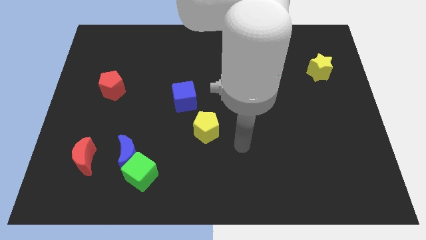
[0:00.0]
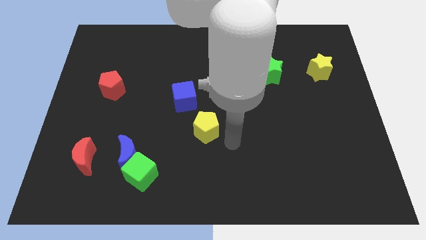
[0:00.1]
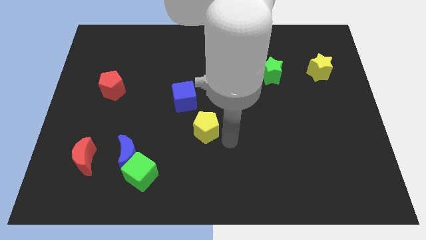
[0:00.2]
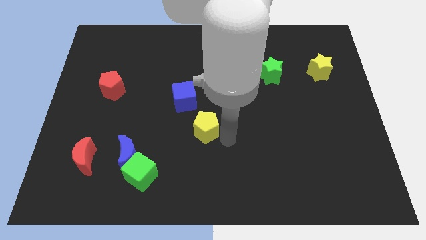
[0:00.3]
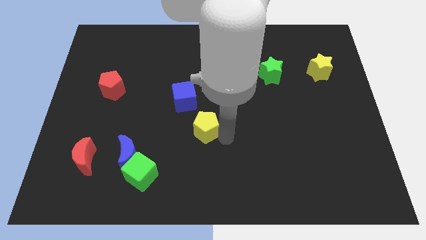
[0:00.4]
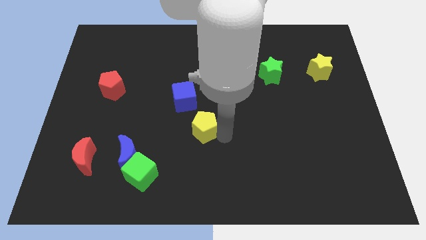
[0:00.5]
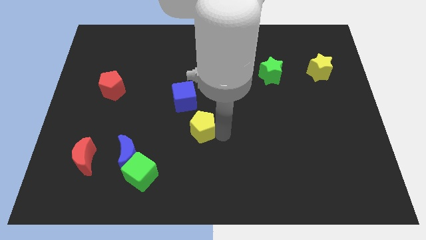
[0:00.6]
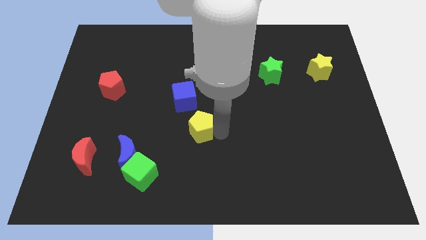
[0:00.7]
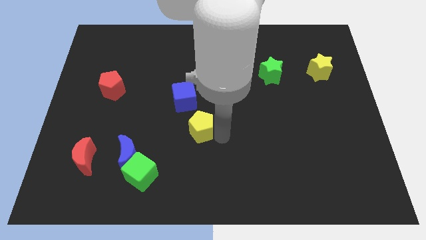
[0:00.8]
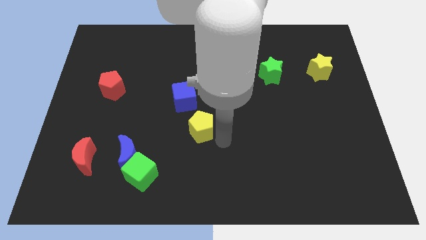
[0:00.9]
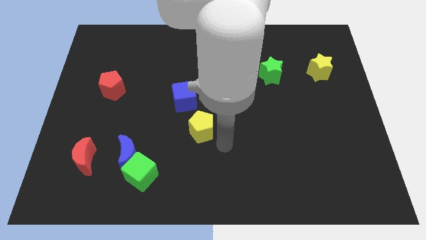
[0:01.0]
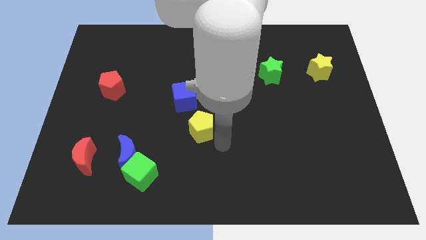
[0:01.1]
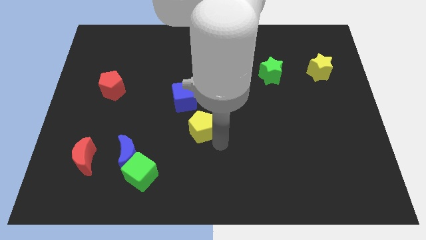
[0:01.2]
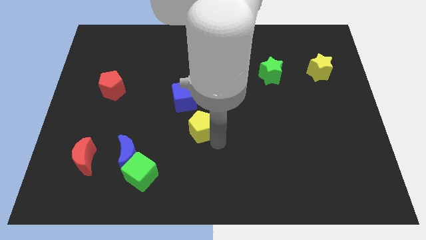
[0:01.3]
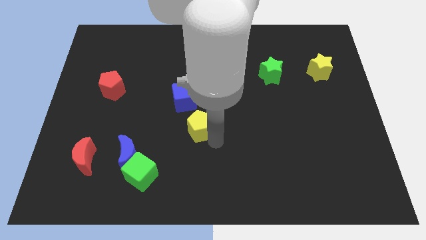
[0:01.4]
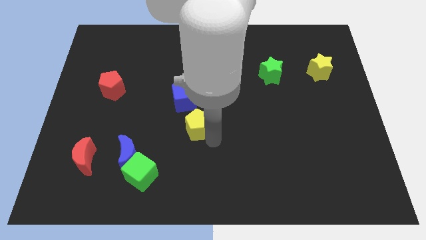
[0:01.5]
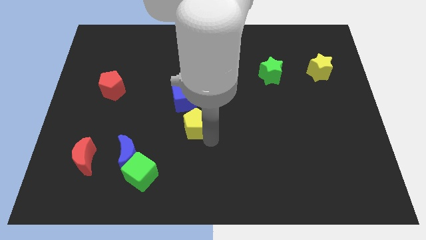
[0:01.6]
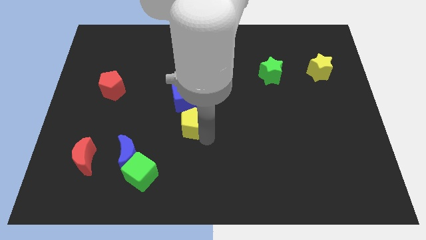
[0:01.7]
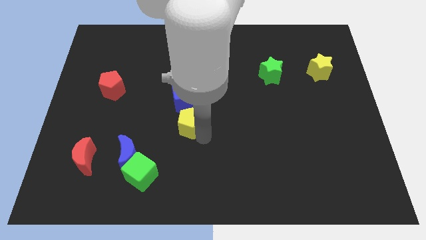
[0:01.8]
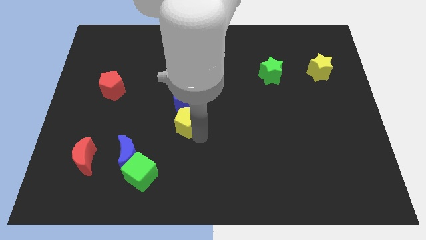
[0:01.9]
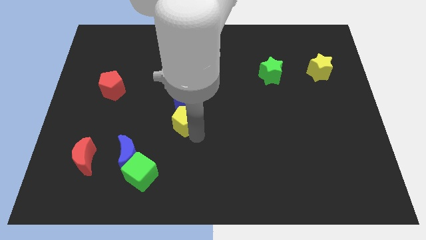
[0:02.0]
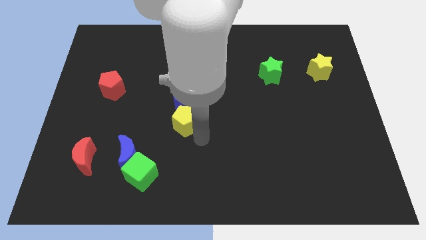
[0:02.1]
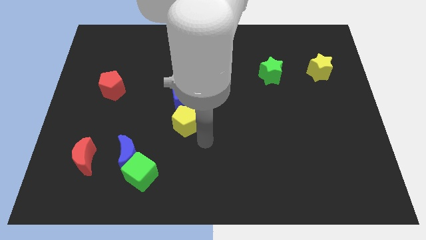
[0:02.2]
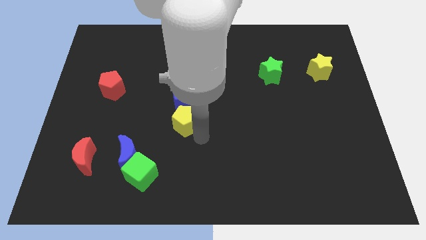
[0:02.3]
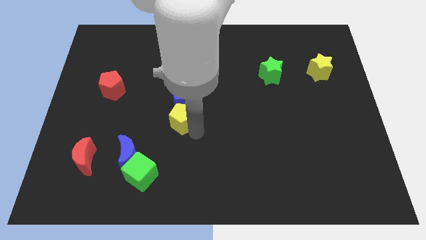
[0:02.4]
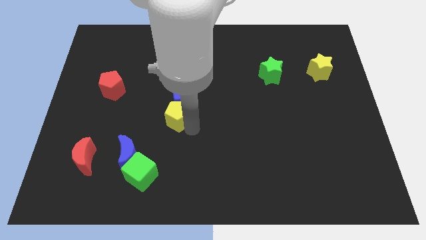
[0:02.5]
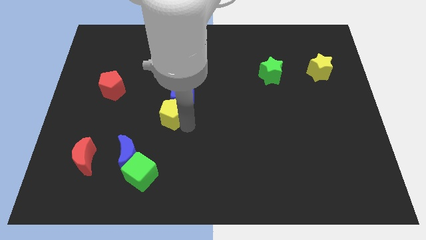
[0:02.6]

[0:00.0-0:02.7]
move the yellow pentagon slightly upwards and then to the left

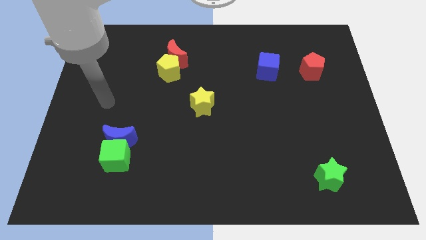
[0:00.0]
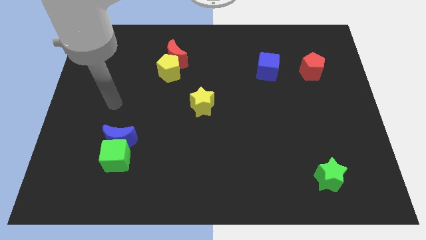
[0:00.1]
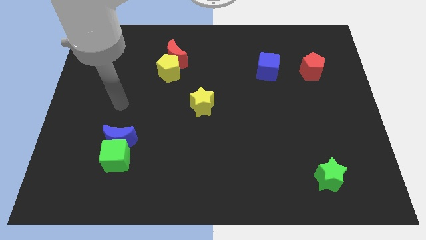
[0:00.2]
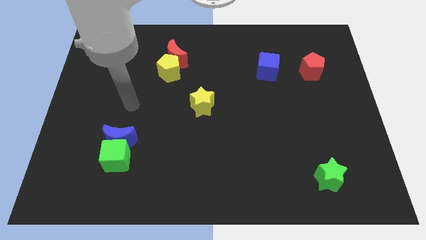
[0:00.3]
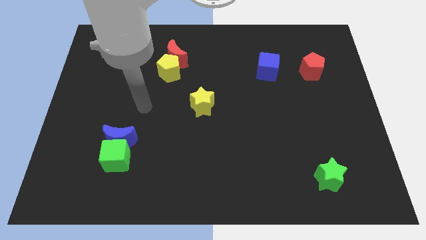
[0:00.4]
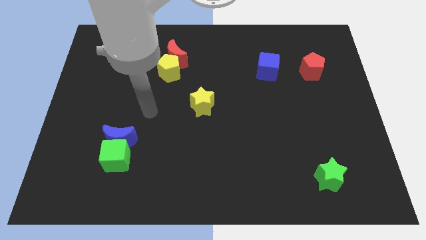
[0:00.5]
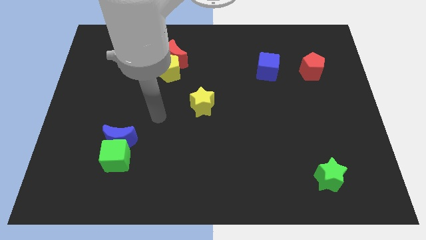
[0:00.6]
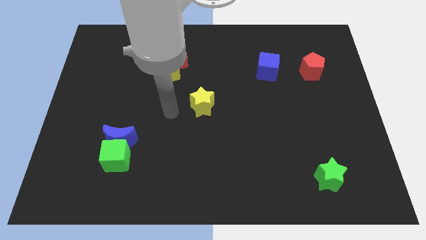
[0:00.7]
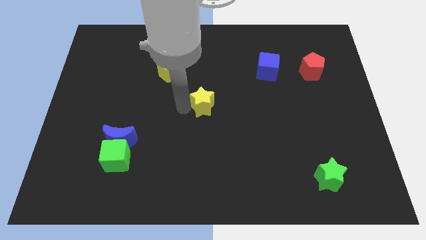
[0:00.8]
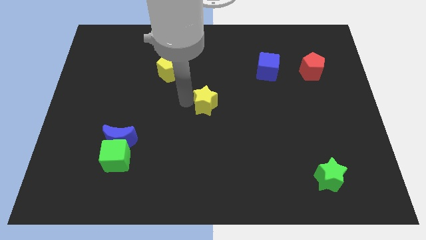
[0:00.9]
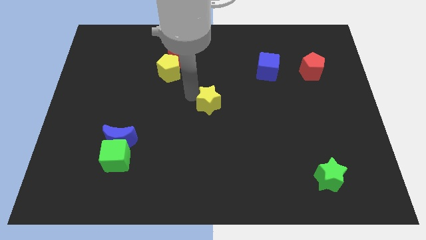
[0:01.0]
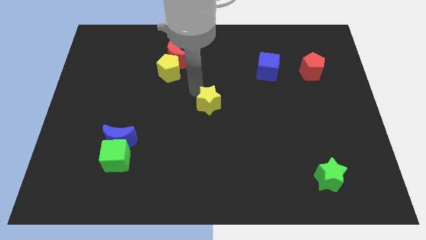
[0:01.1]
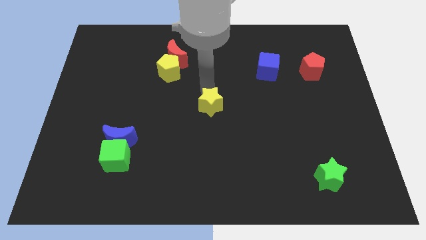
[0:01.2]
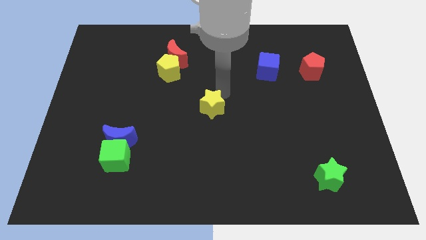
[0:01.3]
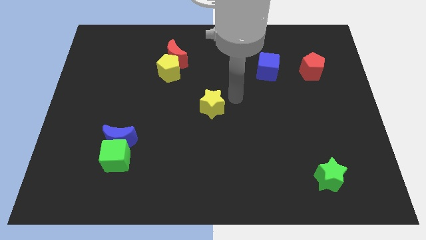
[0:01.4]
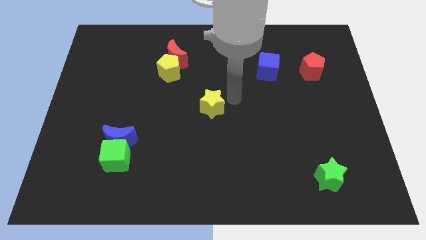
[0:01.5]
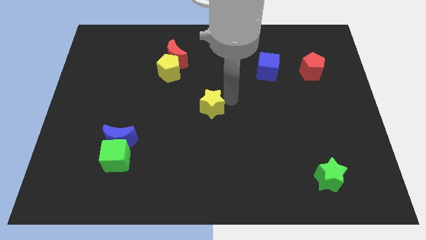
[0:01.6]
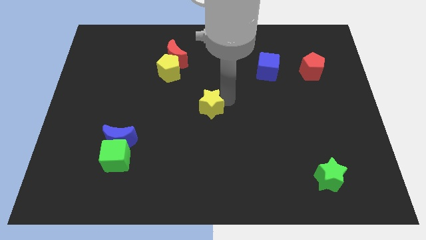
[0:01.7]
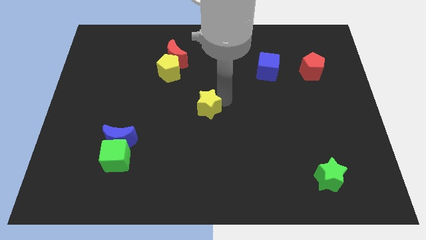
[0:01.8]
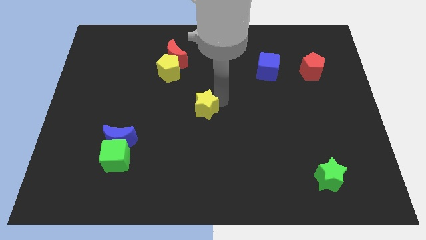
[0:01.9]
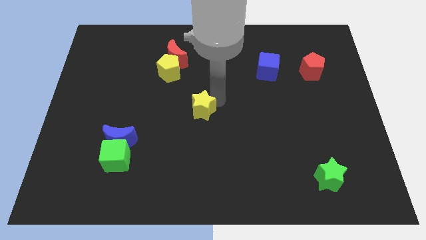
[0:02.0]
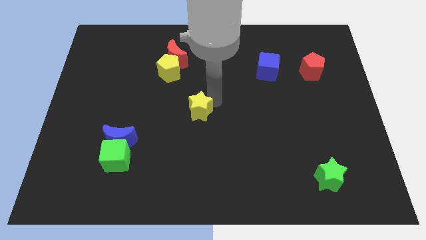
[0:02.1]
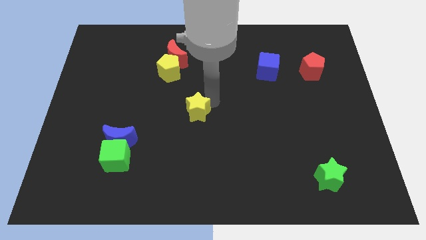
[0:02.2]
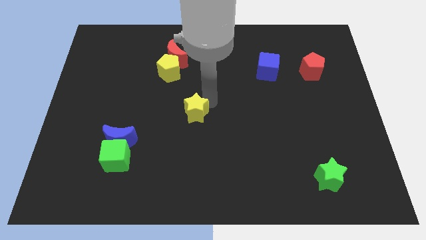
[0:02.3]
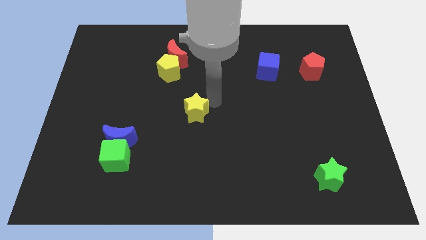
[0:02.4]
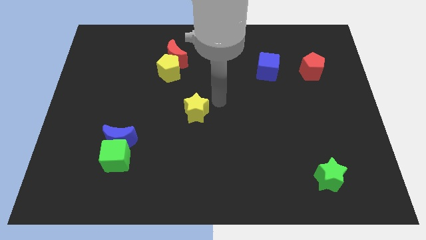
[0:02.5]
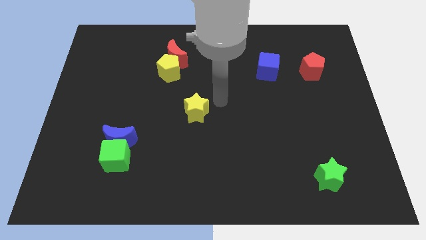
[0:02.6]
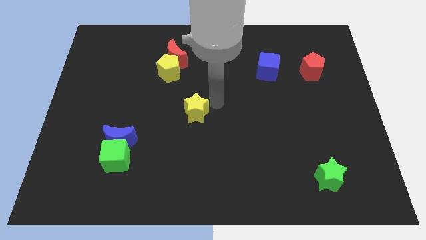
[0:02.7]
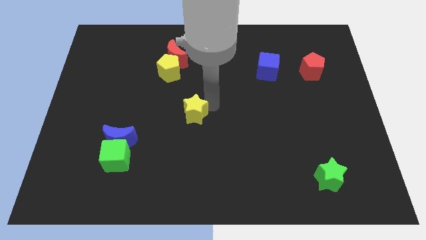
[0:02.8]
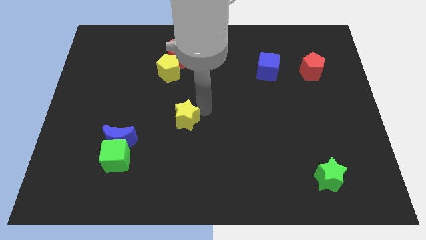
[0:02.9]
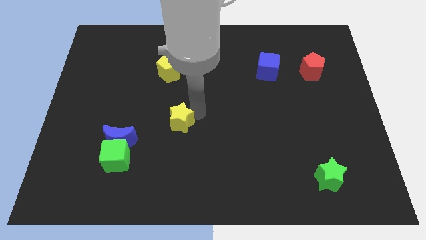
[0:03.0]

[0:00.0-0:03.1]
slightly move the yellow star downwards and left diagonally

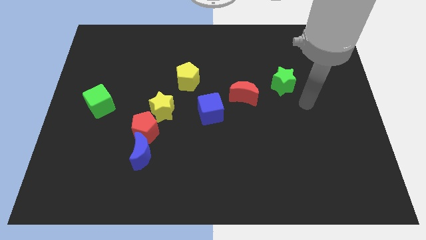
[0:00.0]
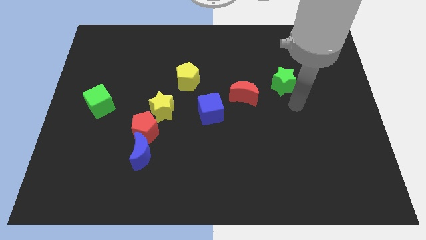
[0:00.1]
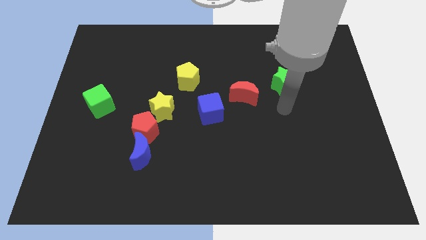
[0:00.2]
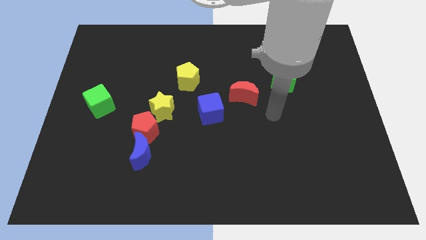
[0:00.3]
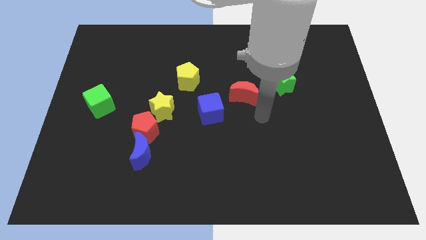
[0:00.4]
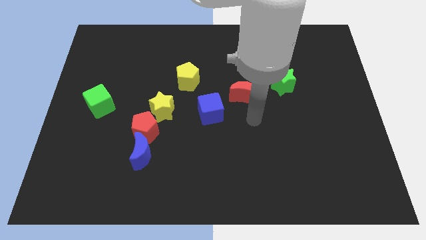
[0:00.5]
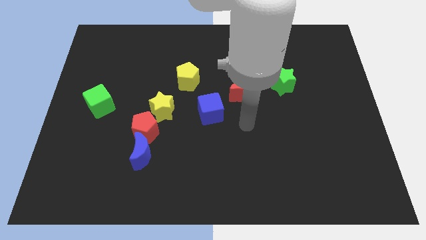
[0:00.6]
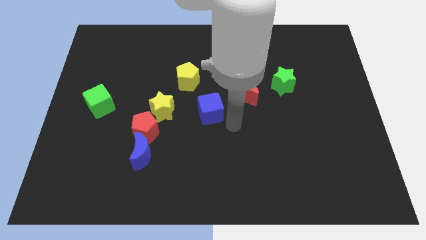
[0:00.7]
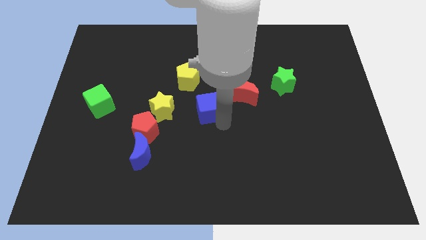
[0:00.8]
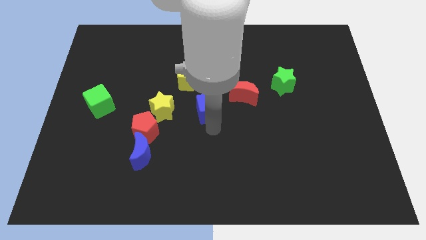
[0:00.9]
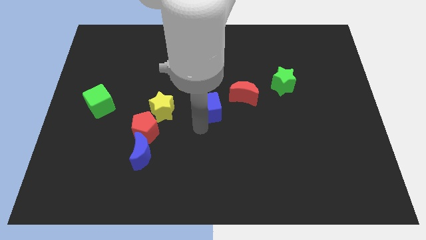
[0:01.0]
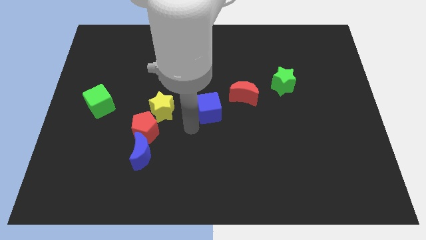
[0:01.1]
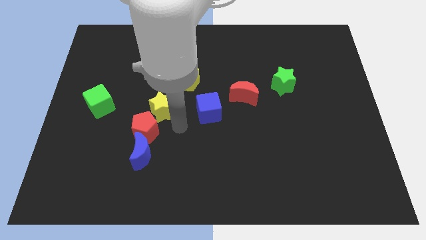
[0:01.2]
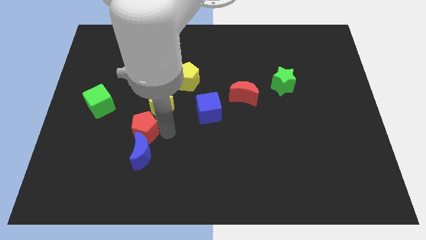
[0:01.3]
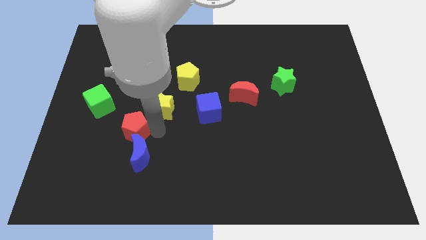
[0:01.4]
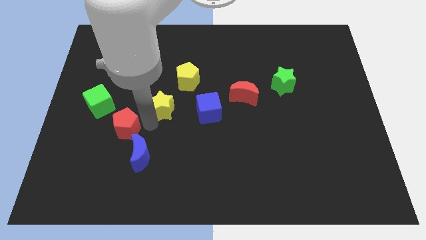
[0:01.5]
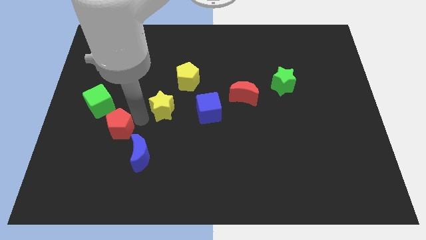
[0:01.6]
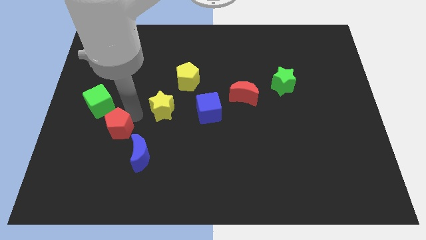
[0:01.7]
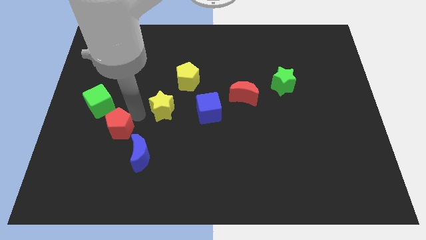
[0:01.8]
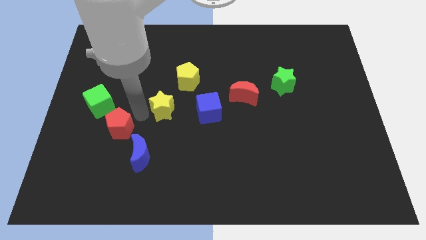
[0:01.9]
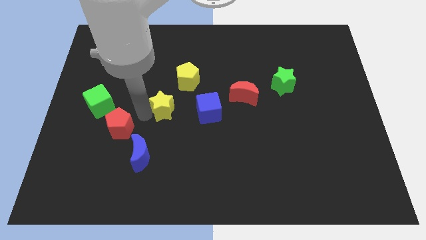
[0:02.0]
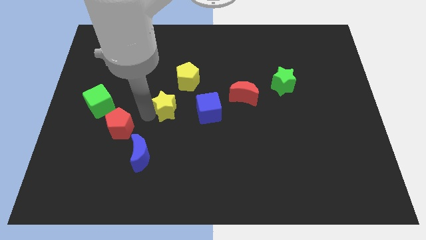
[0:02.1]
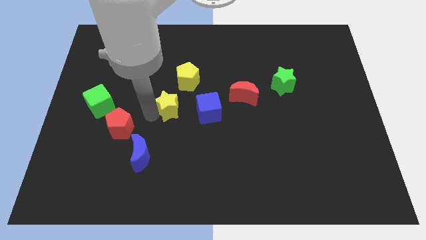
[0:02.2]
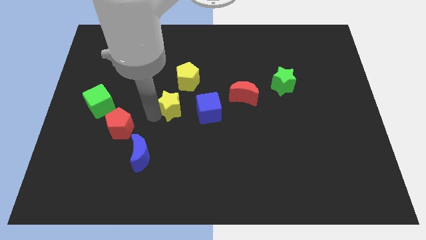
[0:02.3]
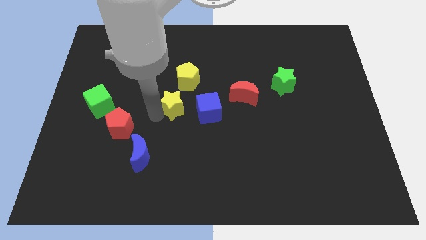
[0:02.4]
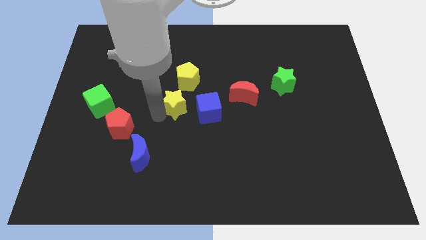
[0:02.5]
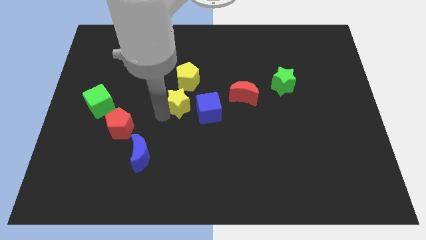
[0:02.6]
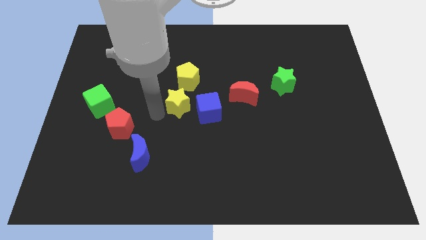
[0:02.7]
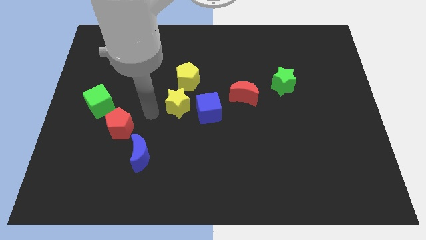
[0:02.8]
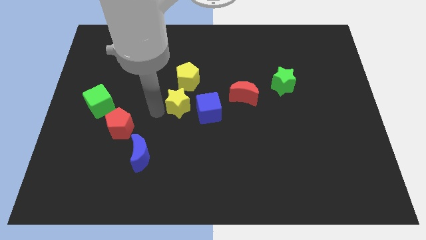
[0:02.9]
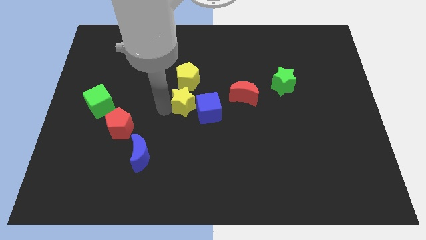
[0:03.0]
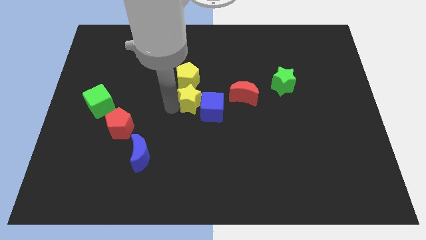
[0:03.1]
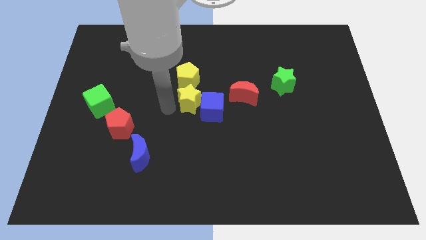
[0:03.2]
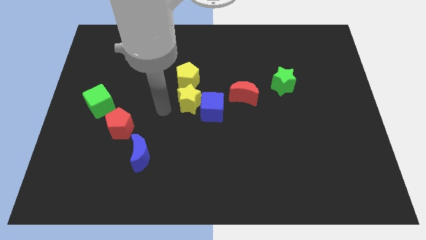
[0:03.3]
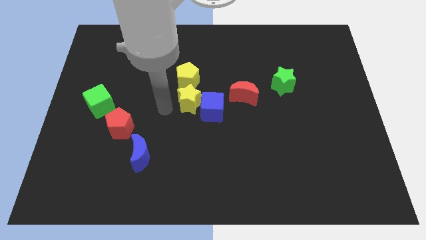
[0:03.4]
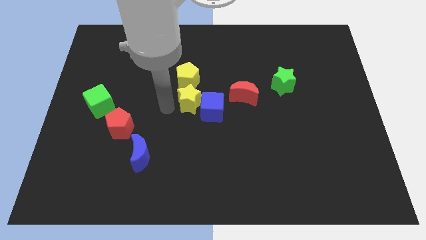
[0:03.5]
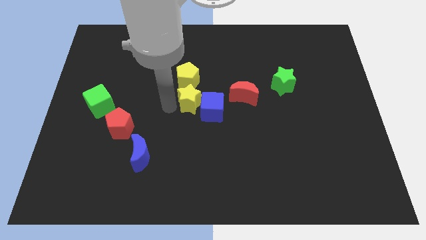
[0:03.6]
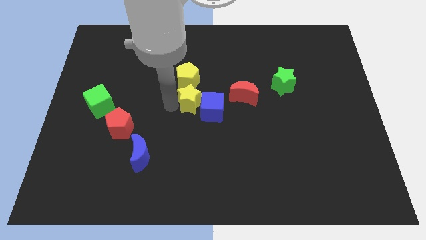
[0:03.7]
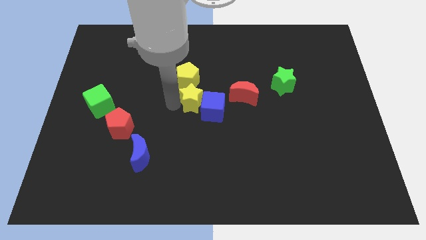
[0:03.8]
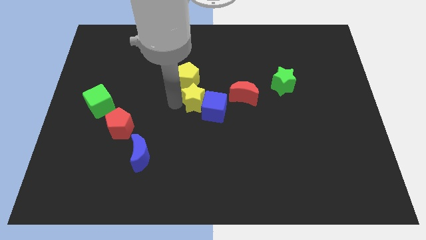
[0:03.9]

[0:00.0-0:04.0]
slightly slide the yellow star to the right
